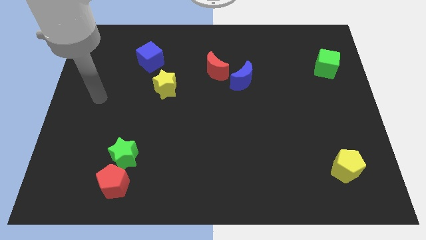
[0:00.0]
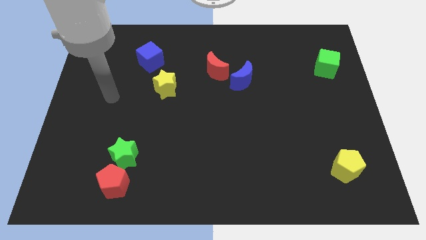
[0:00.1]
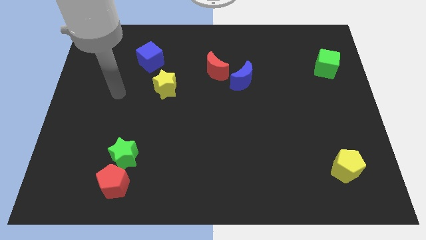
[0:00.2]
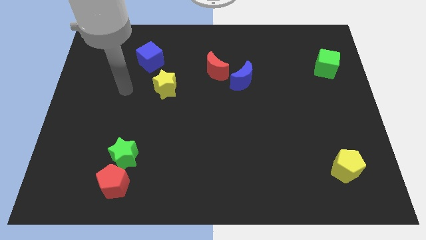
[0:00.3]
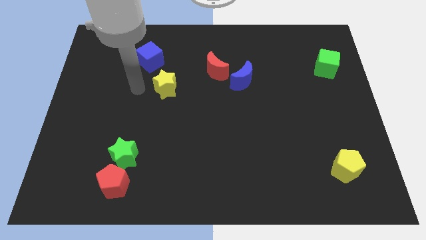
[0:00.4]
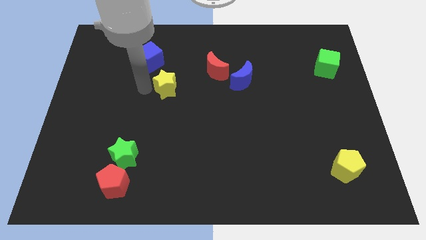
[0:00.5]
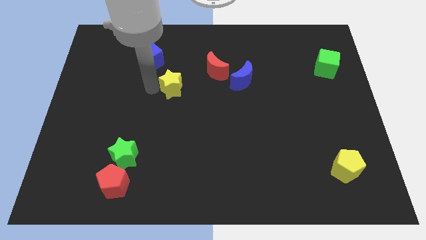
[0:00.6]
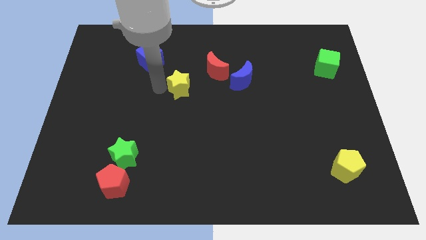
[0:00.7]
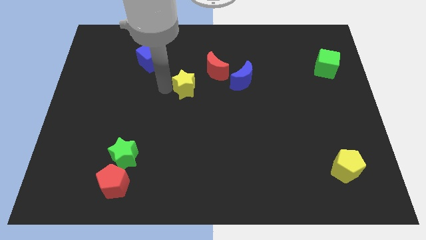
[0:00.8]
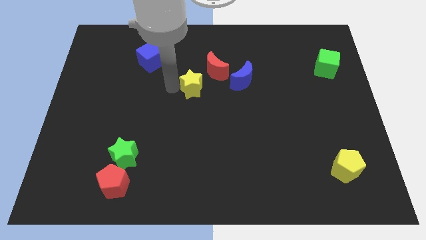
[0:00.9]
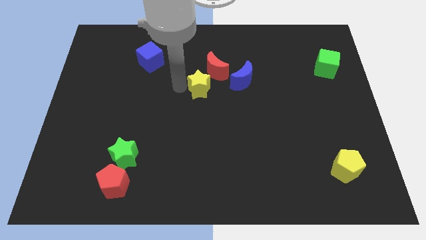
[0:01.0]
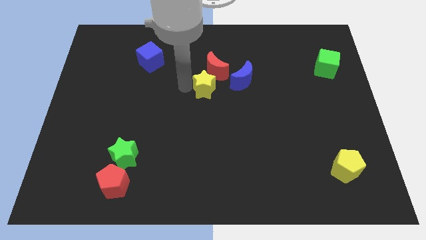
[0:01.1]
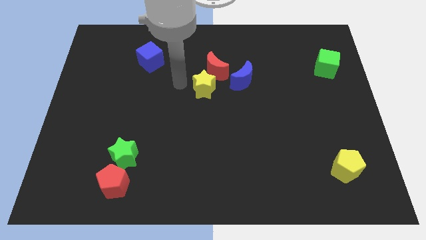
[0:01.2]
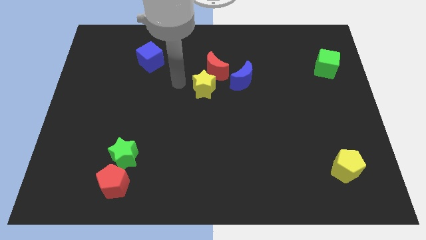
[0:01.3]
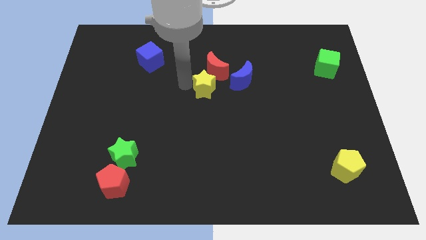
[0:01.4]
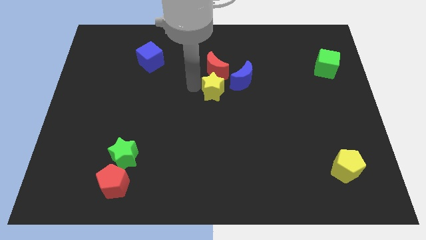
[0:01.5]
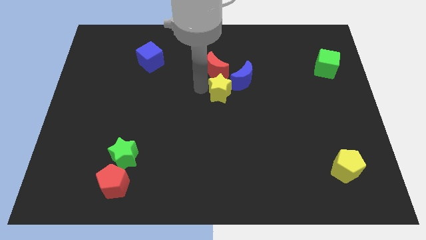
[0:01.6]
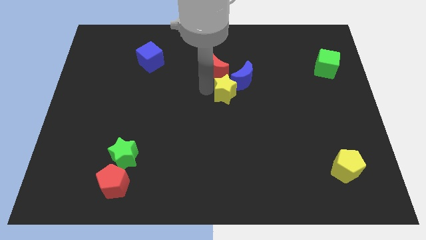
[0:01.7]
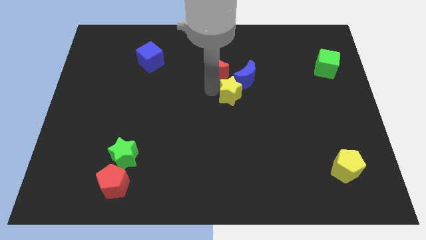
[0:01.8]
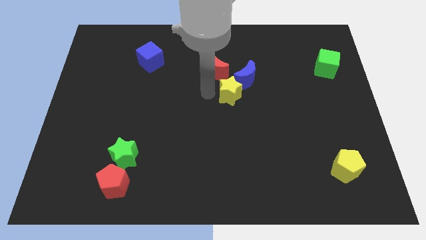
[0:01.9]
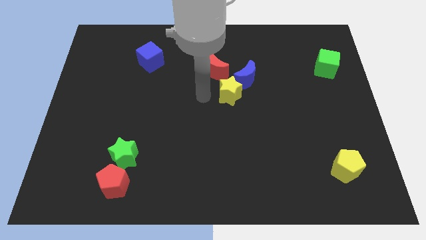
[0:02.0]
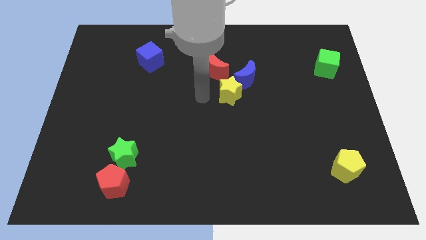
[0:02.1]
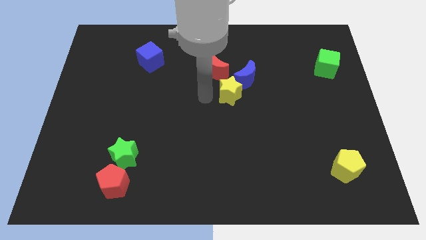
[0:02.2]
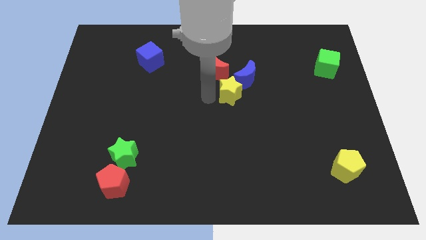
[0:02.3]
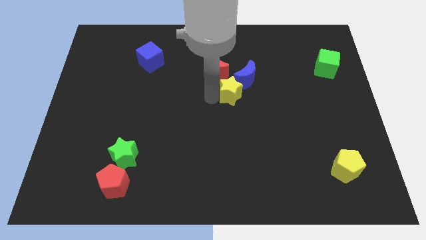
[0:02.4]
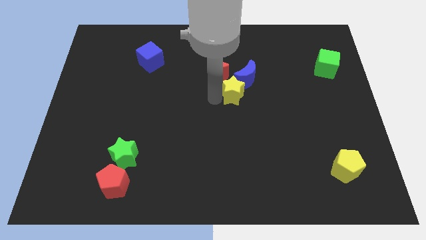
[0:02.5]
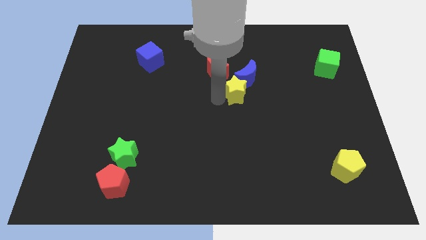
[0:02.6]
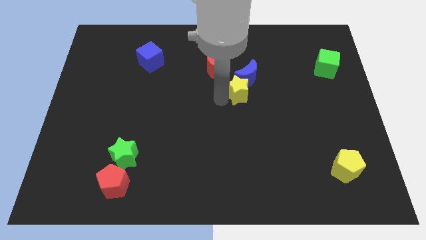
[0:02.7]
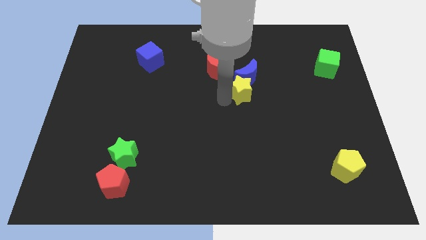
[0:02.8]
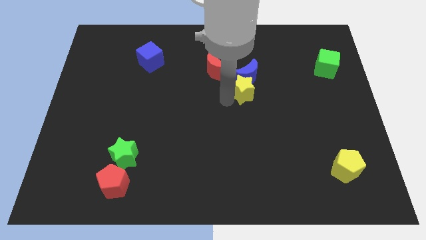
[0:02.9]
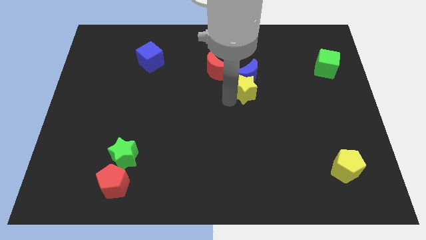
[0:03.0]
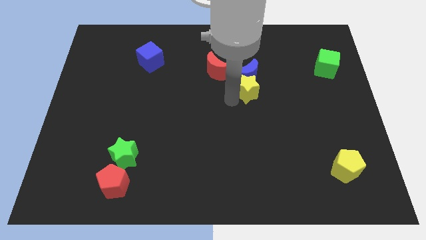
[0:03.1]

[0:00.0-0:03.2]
slide the yellow star right

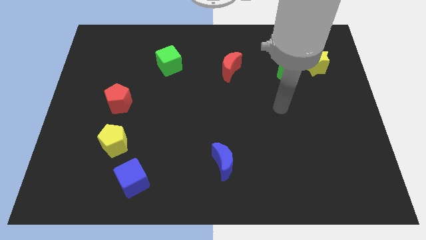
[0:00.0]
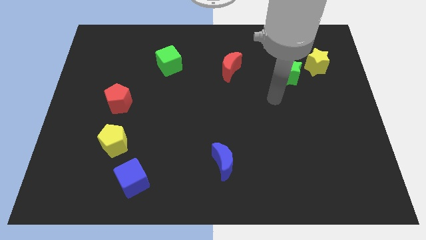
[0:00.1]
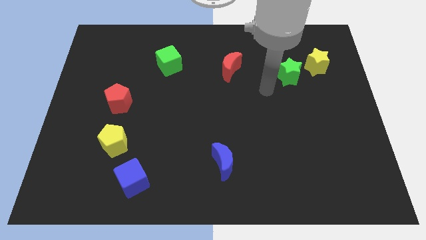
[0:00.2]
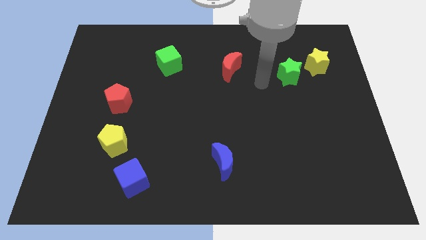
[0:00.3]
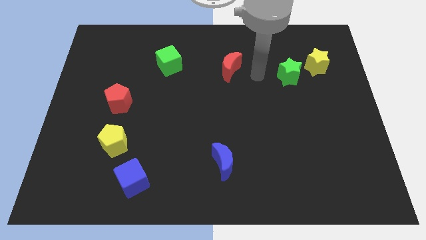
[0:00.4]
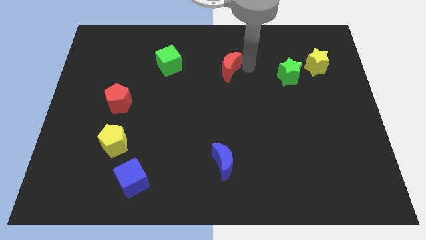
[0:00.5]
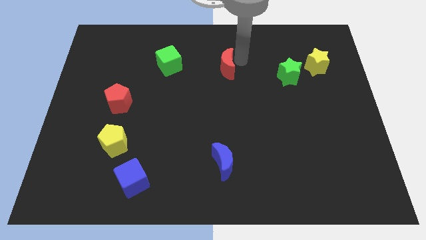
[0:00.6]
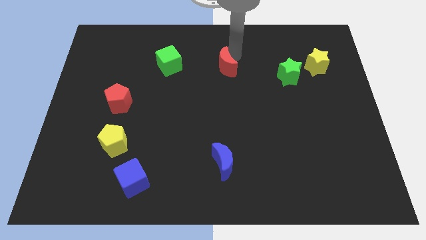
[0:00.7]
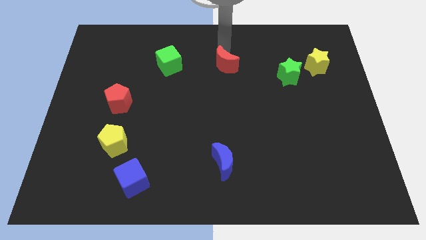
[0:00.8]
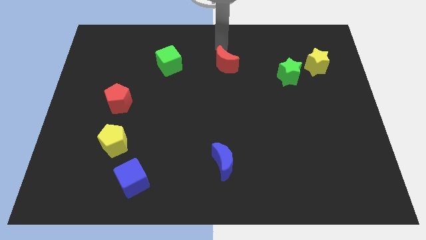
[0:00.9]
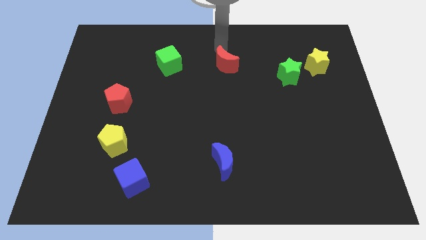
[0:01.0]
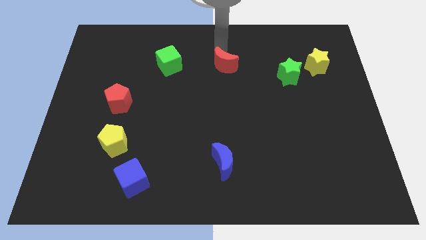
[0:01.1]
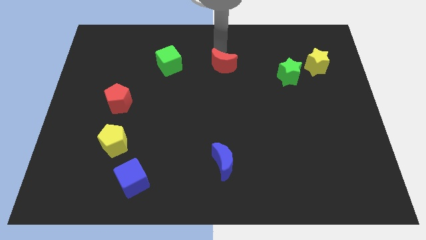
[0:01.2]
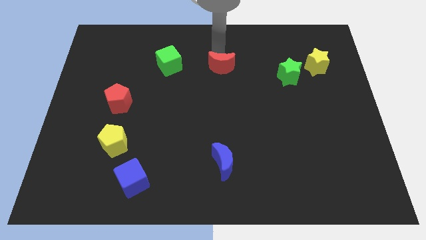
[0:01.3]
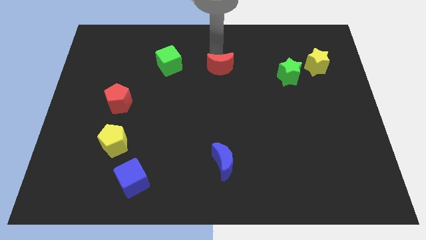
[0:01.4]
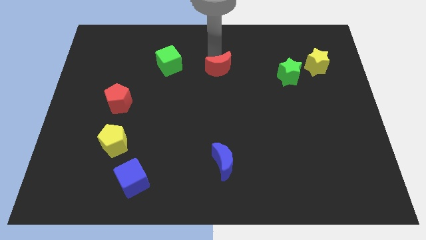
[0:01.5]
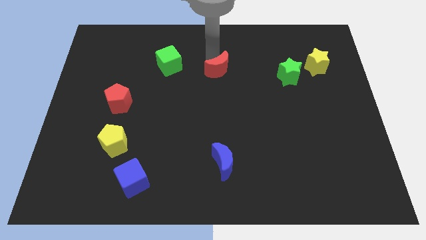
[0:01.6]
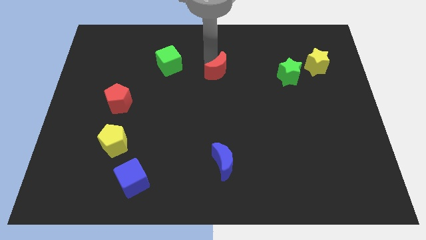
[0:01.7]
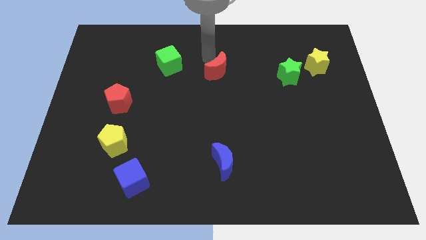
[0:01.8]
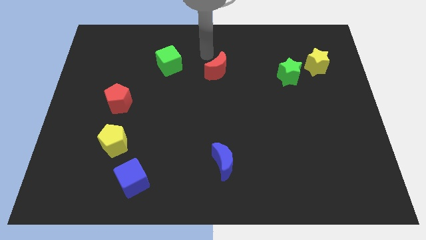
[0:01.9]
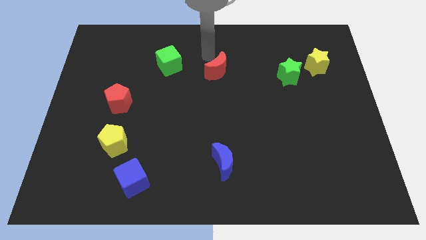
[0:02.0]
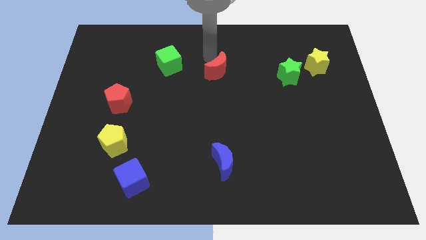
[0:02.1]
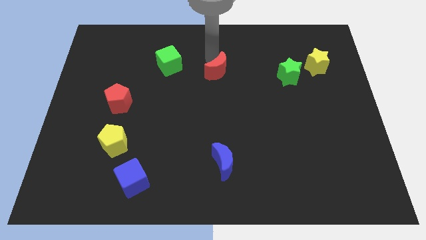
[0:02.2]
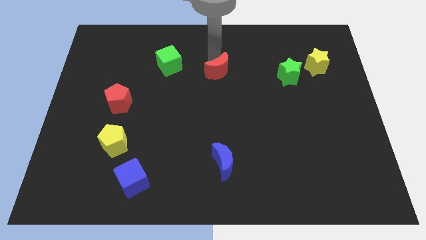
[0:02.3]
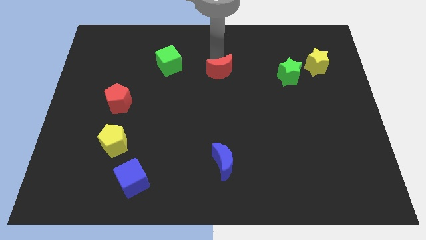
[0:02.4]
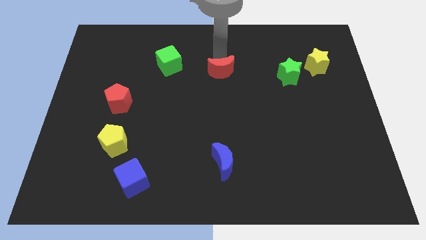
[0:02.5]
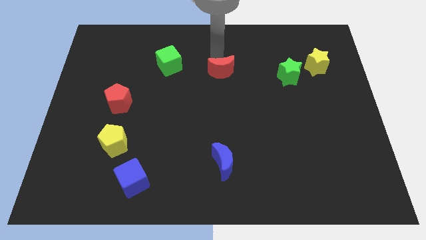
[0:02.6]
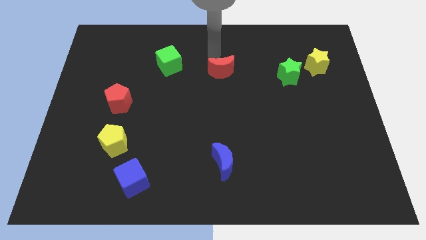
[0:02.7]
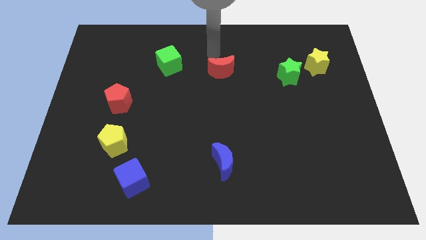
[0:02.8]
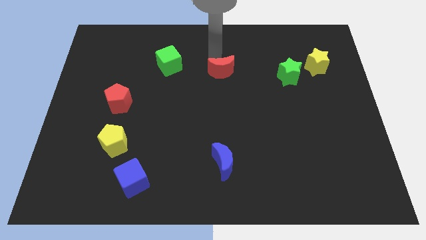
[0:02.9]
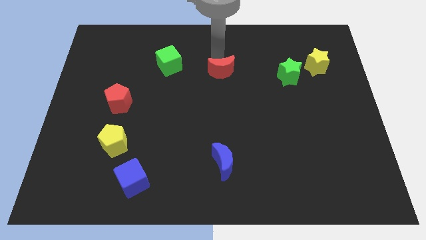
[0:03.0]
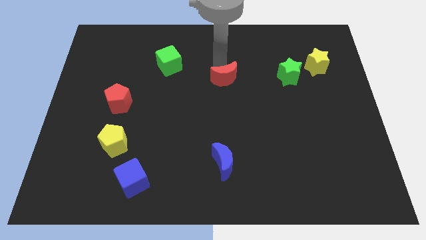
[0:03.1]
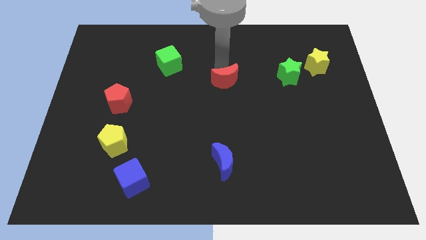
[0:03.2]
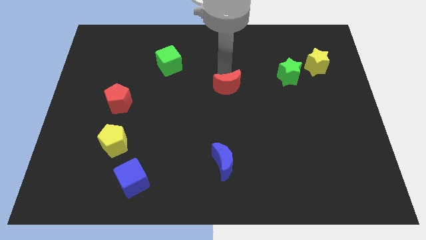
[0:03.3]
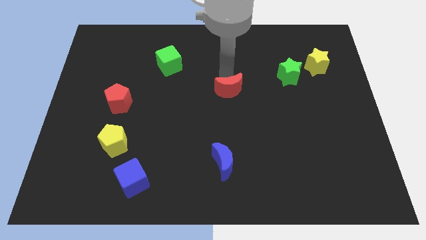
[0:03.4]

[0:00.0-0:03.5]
slightly slide the red moon down

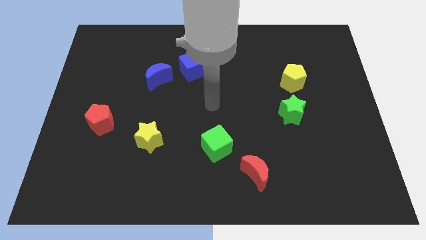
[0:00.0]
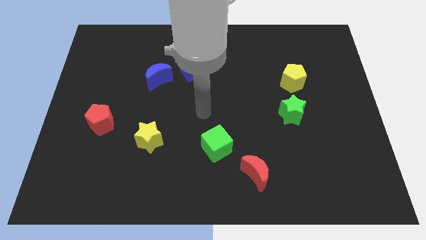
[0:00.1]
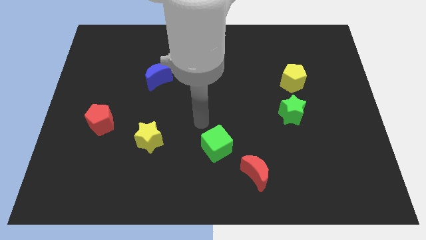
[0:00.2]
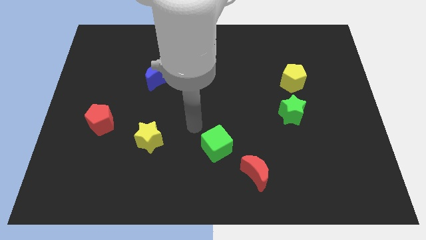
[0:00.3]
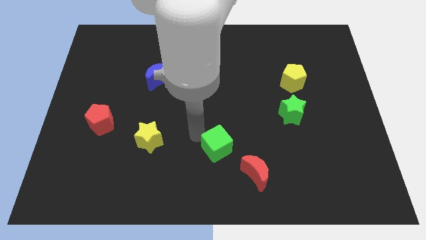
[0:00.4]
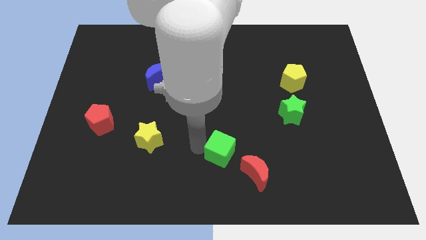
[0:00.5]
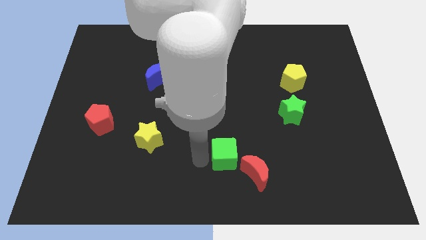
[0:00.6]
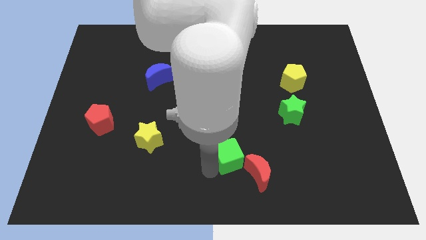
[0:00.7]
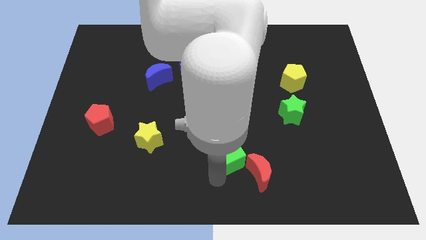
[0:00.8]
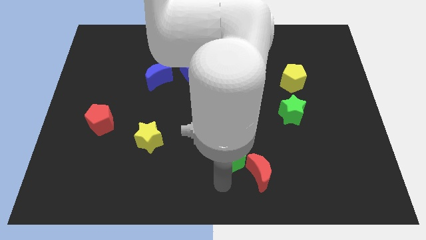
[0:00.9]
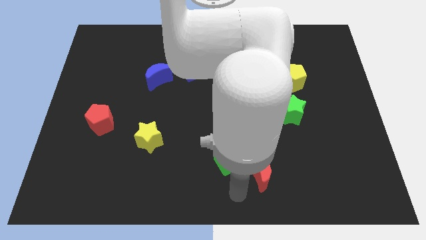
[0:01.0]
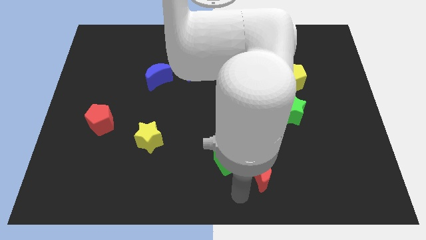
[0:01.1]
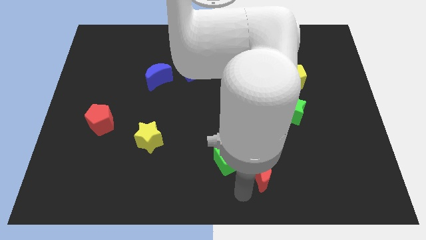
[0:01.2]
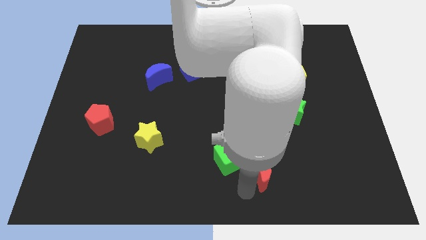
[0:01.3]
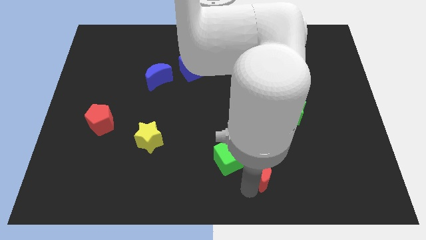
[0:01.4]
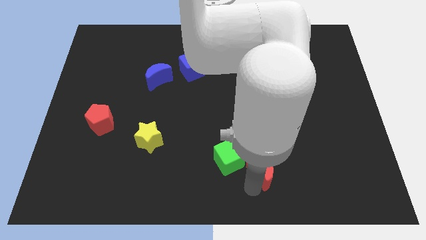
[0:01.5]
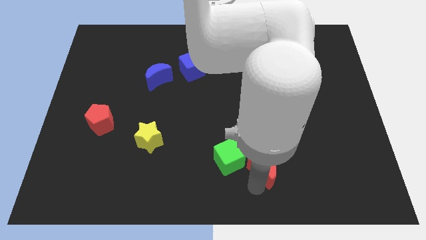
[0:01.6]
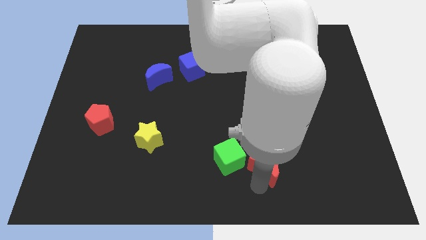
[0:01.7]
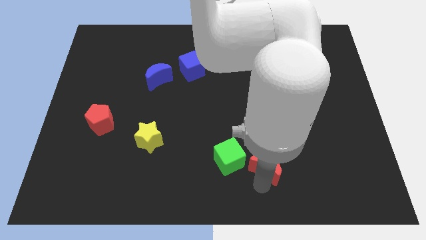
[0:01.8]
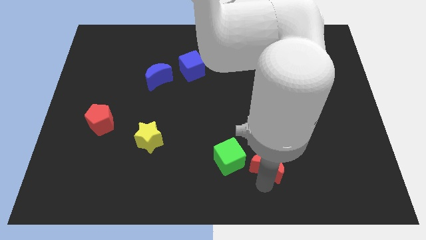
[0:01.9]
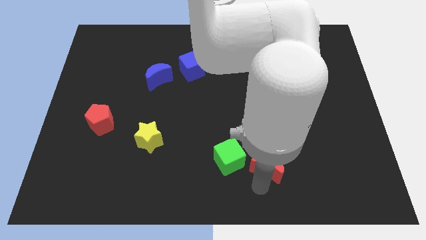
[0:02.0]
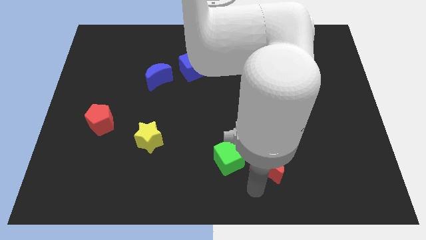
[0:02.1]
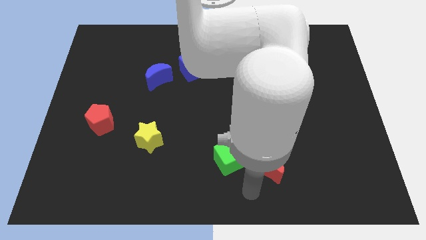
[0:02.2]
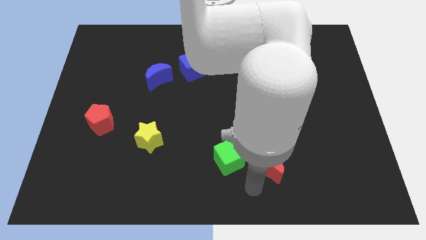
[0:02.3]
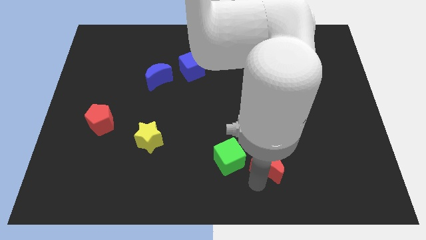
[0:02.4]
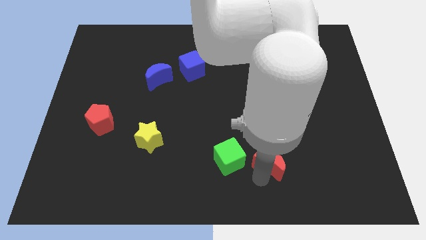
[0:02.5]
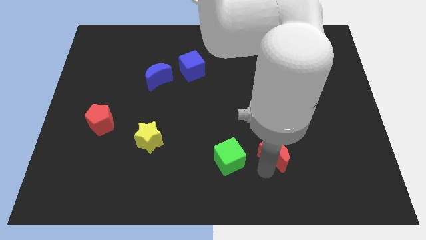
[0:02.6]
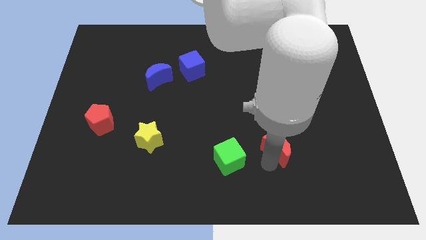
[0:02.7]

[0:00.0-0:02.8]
slightly slide the red moon up and right diagonally
